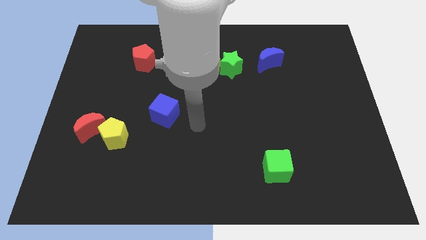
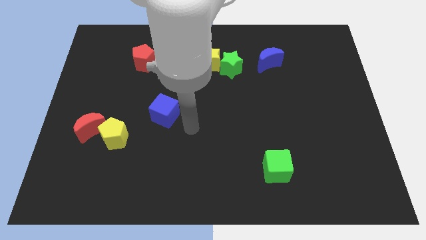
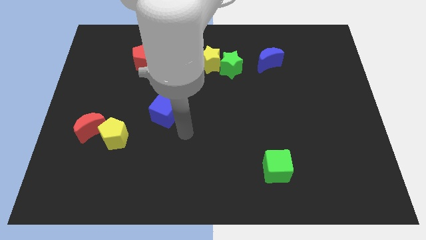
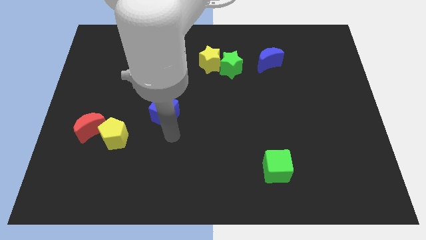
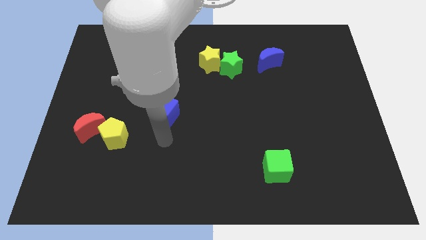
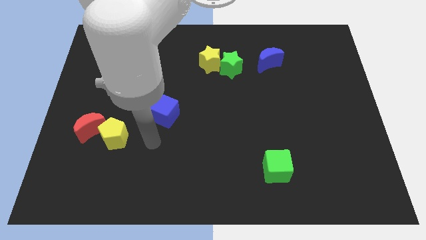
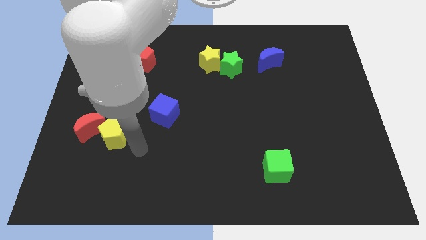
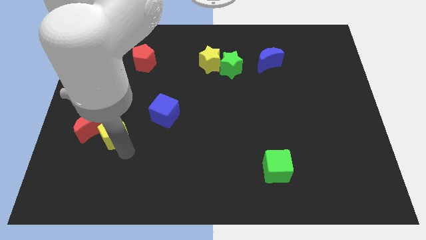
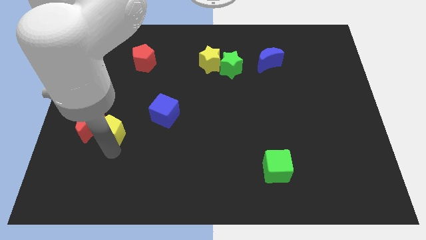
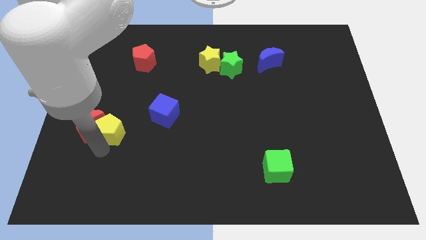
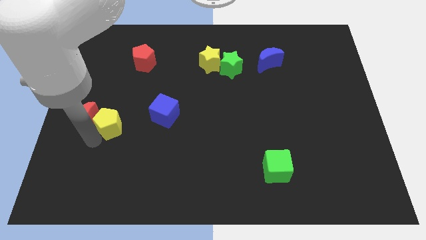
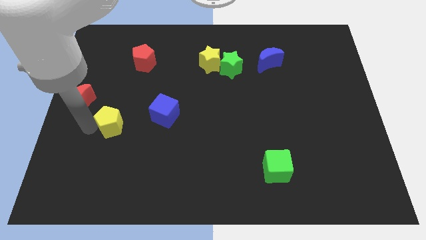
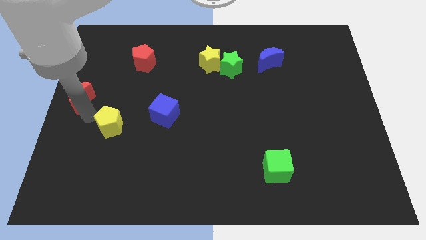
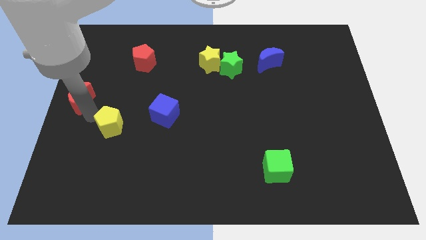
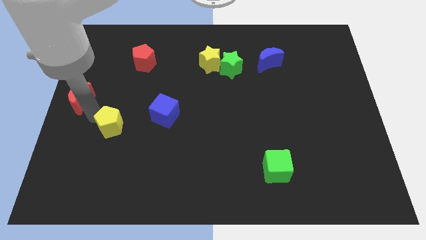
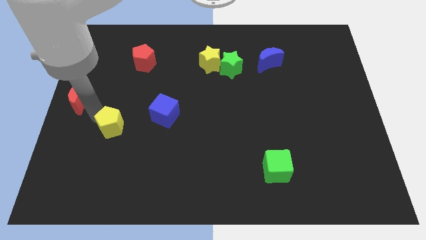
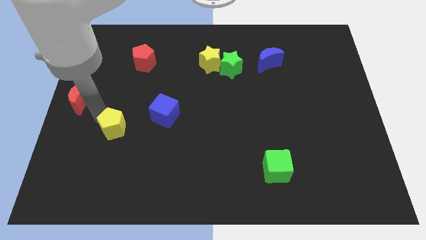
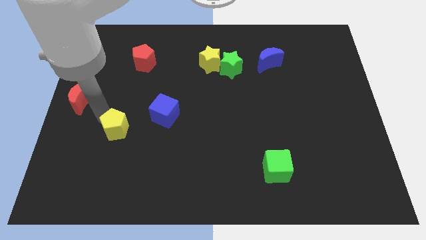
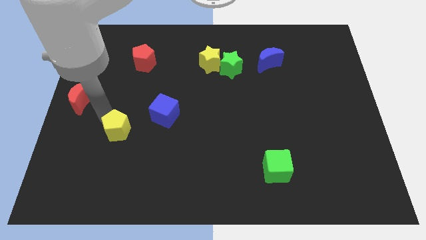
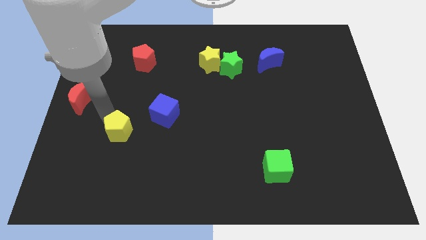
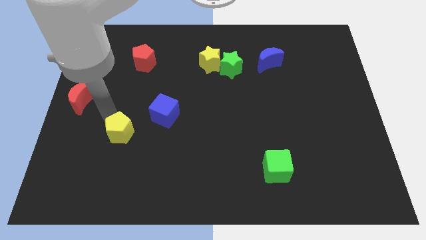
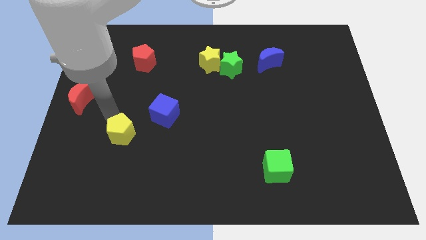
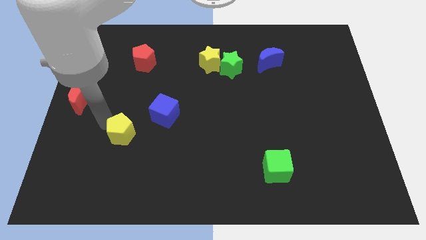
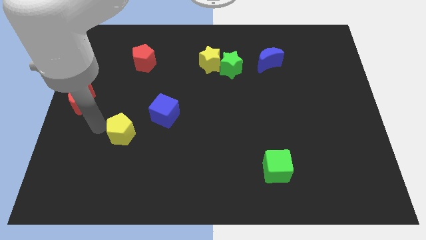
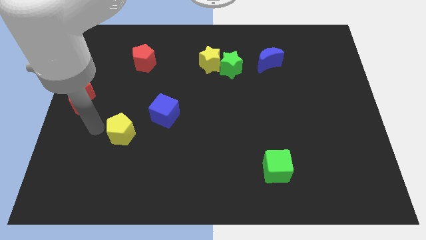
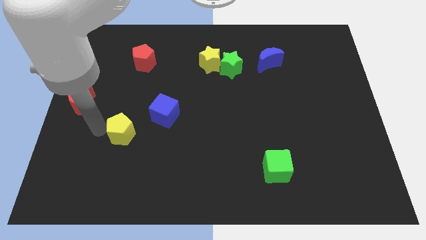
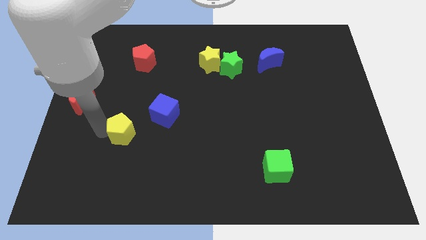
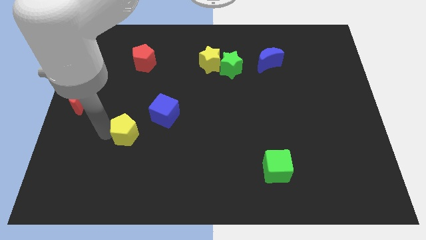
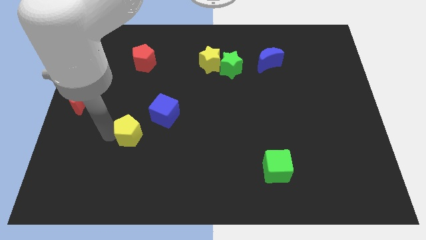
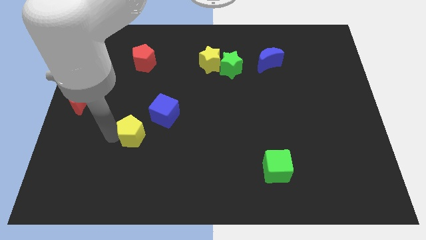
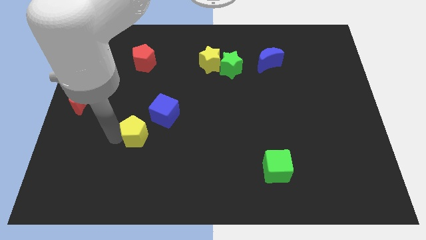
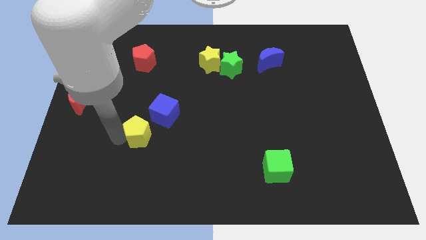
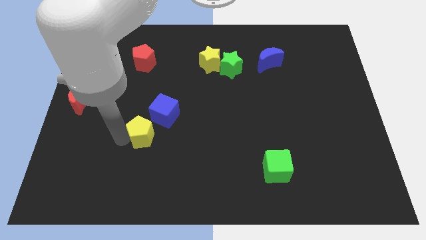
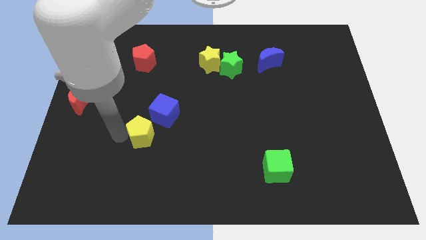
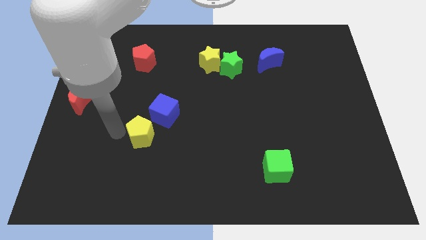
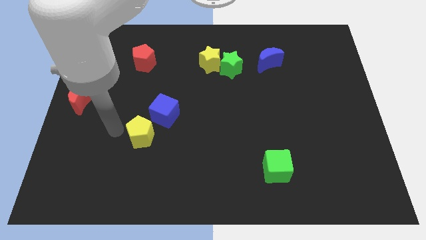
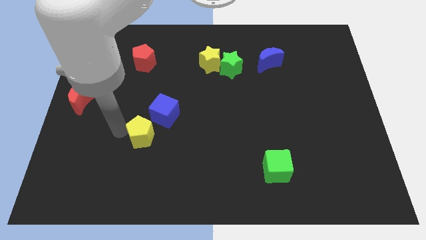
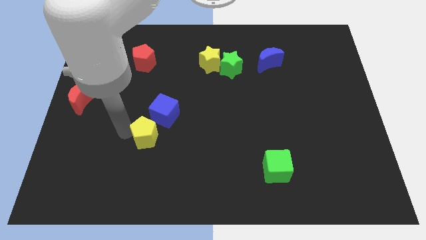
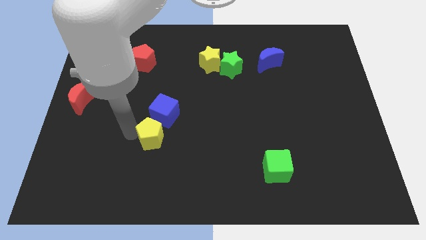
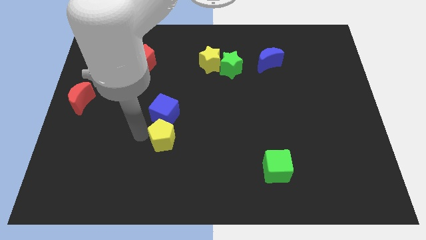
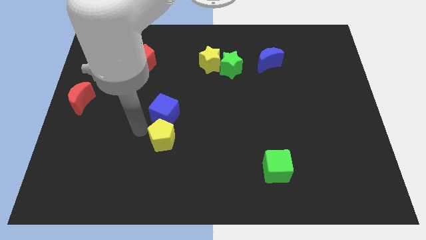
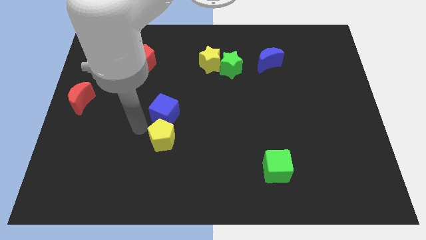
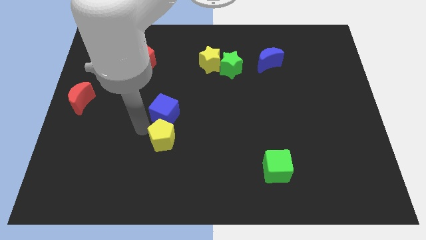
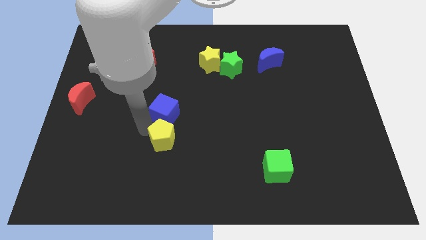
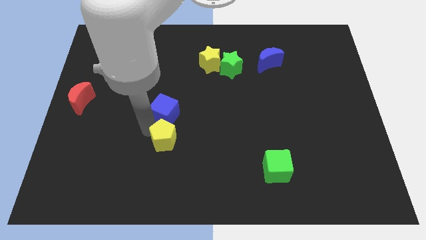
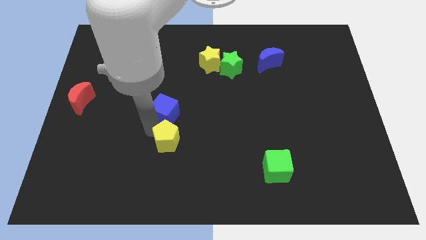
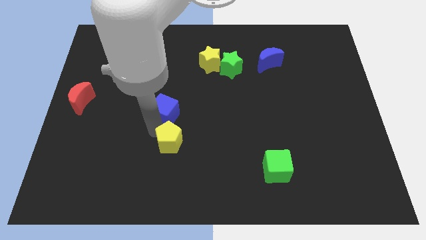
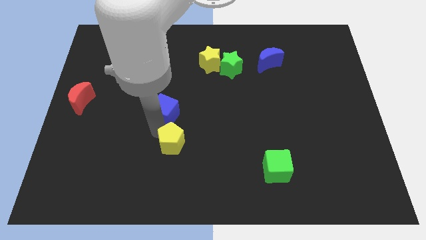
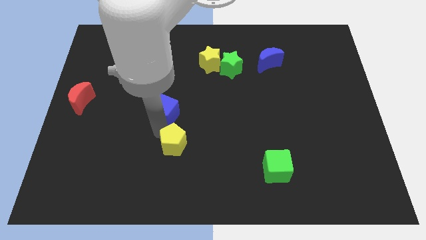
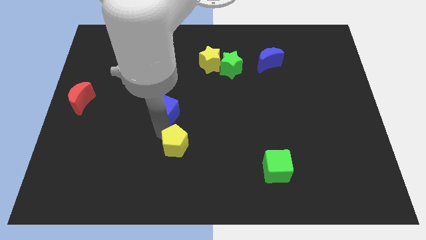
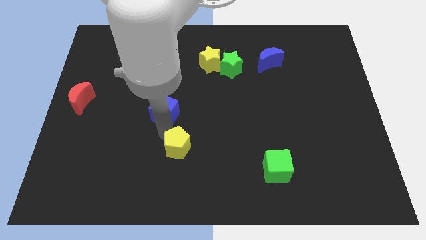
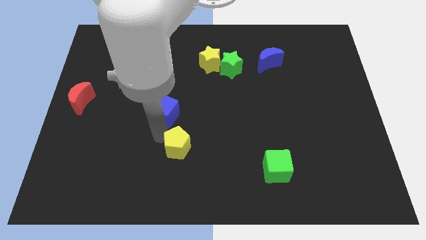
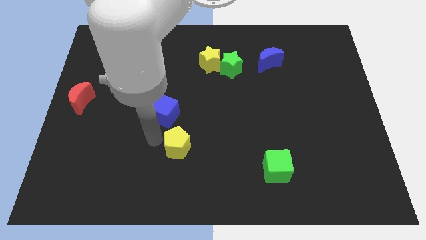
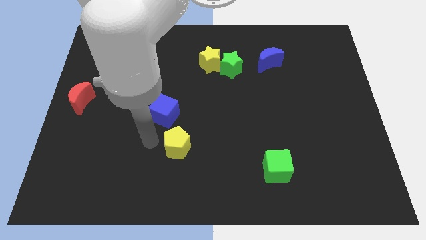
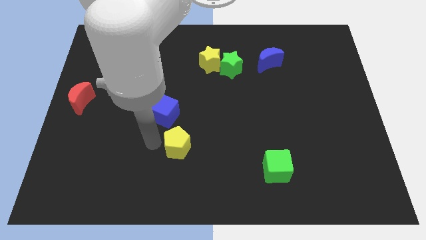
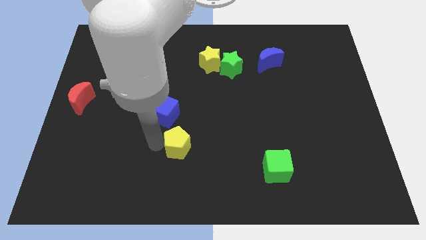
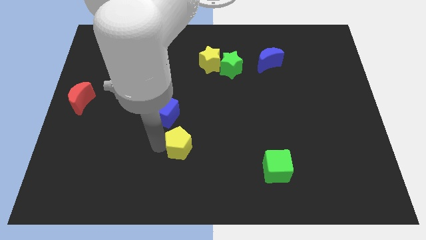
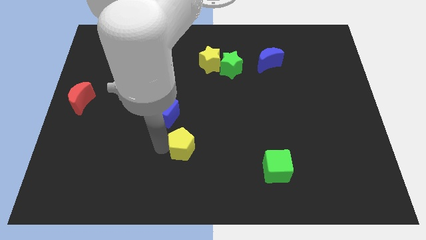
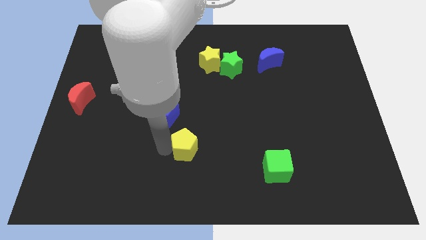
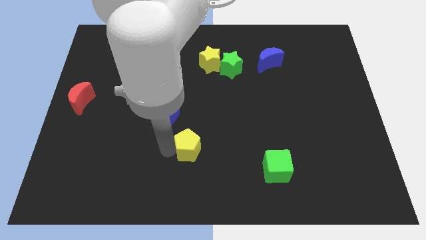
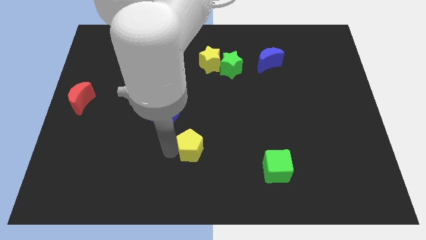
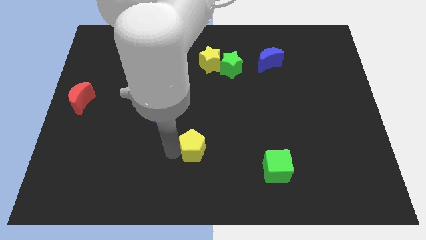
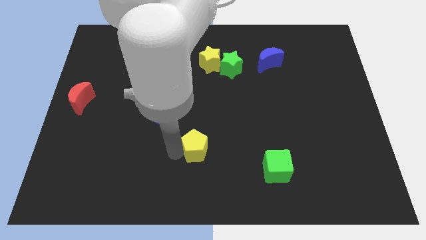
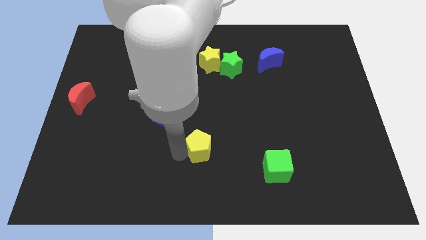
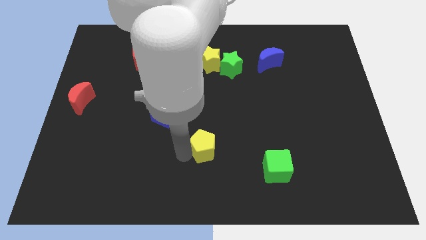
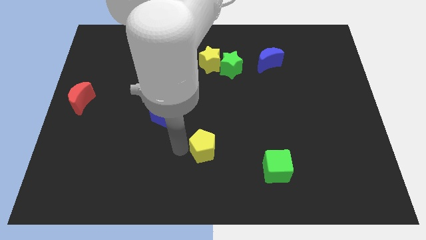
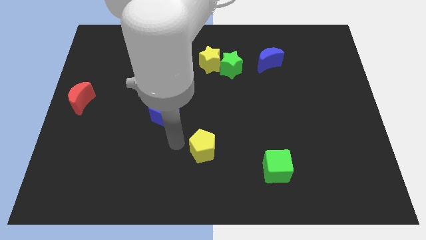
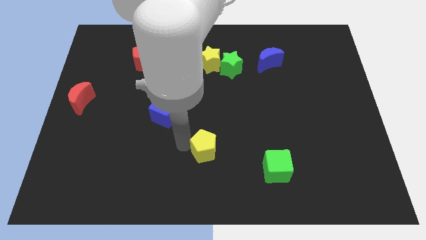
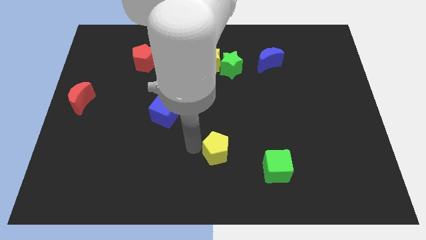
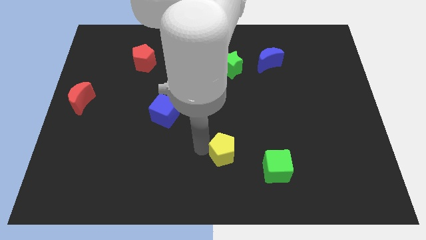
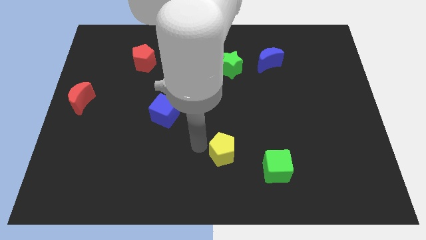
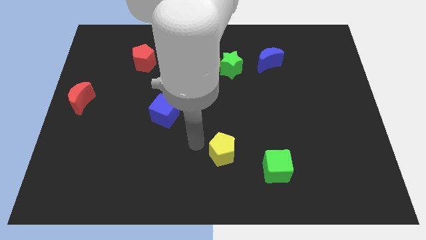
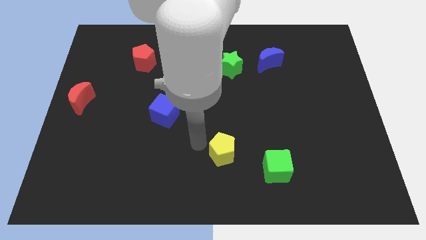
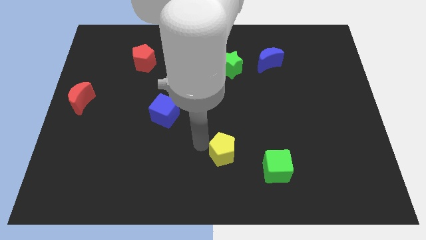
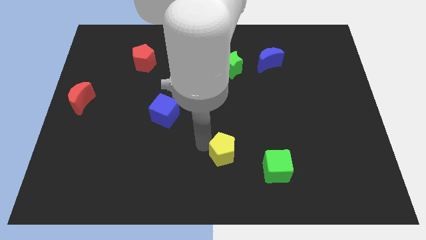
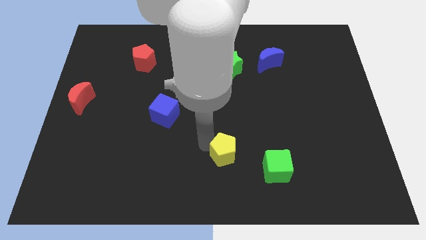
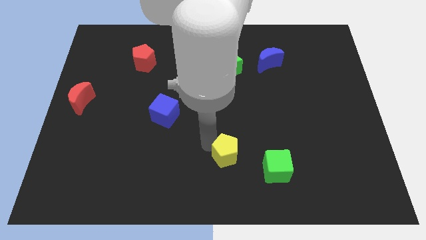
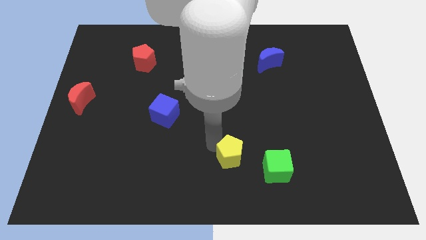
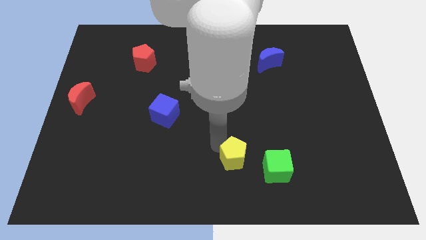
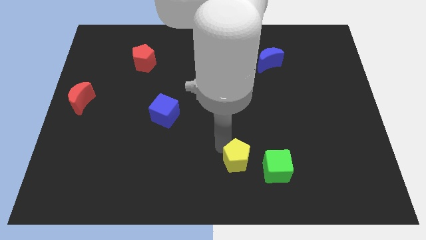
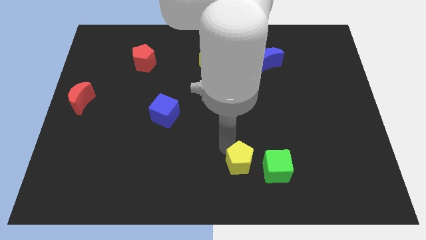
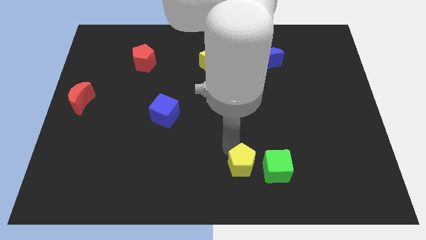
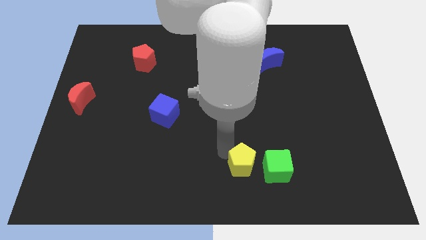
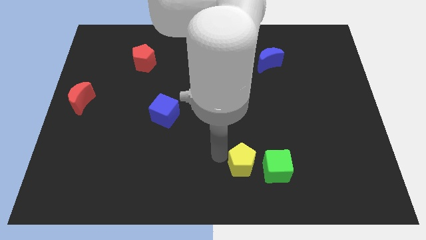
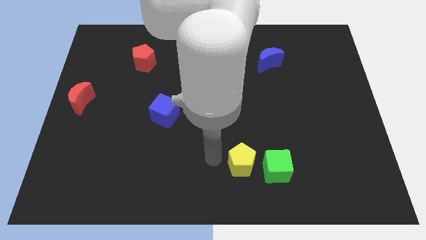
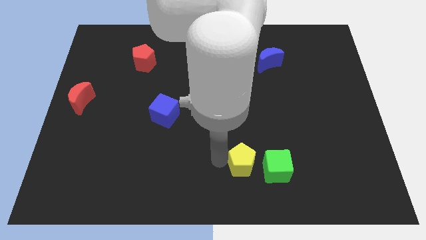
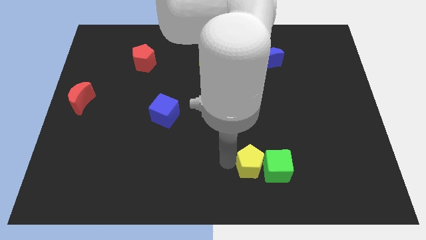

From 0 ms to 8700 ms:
move the yellow pentagon to the green cube
